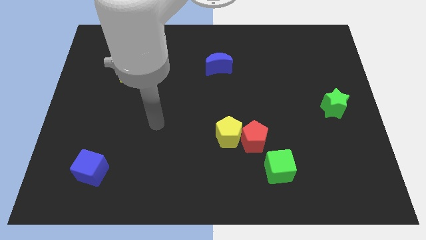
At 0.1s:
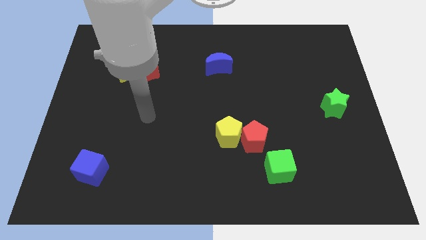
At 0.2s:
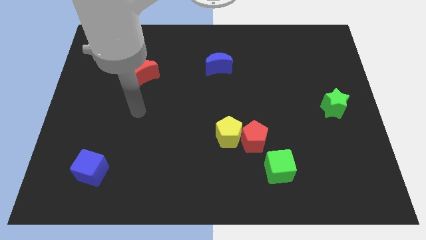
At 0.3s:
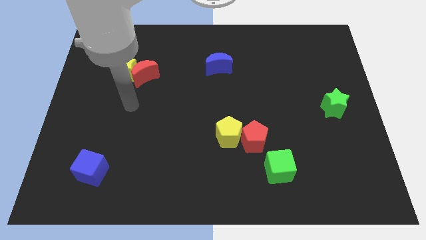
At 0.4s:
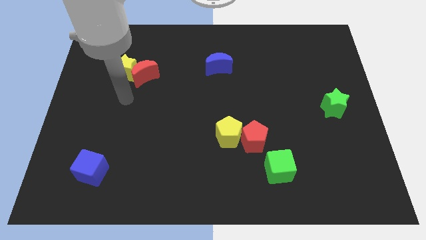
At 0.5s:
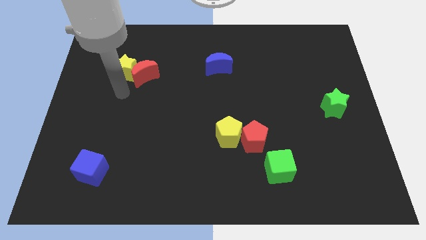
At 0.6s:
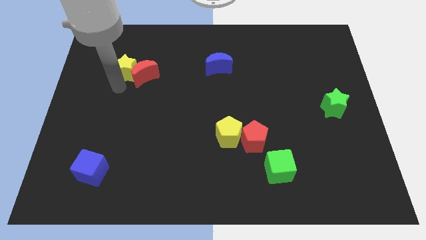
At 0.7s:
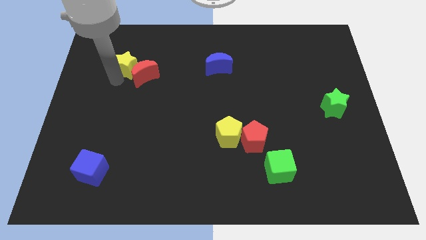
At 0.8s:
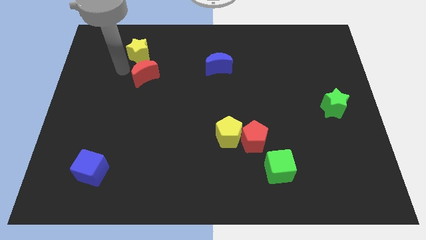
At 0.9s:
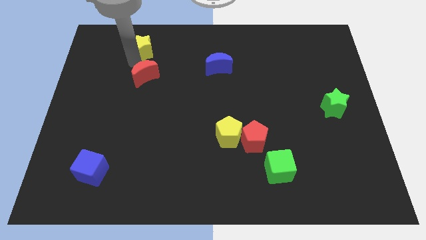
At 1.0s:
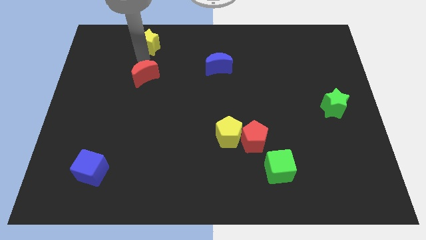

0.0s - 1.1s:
pull the red moon apart from the yellow star

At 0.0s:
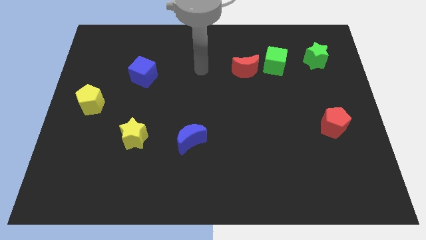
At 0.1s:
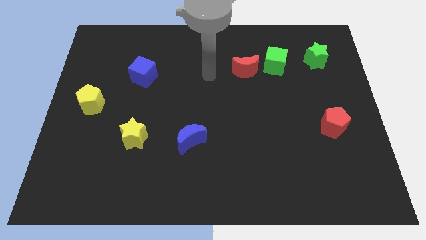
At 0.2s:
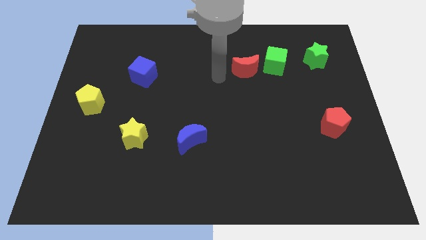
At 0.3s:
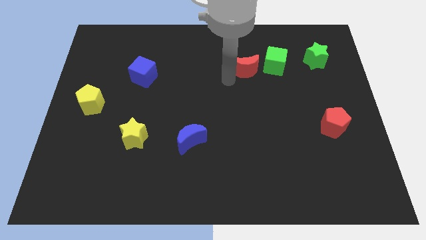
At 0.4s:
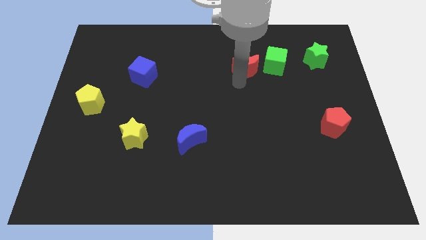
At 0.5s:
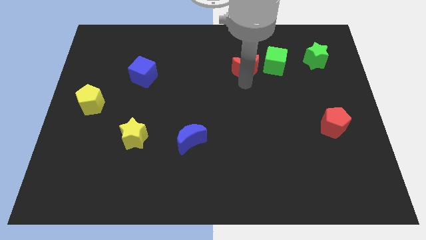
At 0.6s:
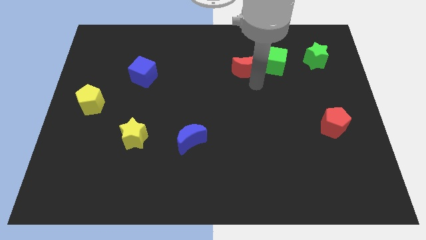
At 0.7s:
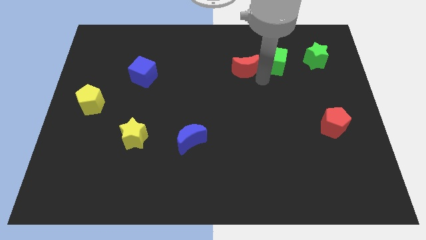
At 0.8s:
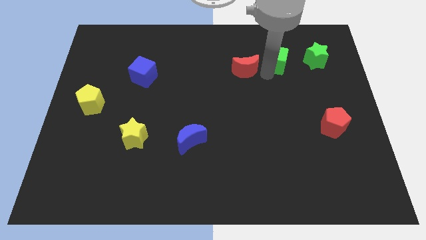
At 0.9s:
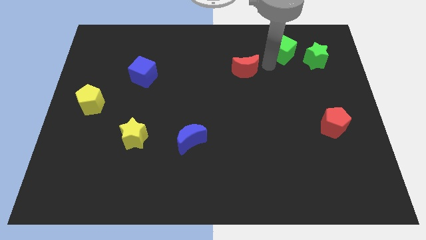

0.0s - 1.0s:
separate the red moon from the green cube

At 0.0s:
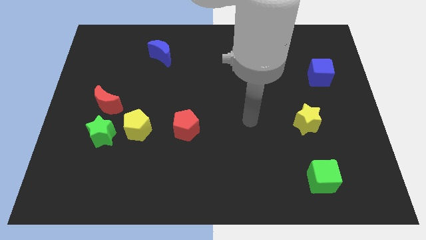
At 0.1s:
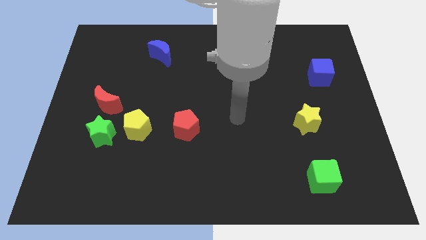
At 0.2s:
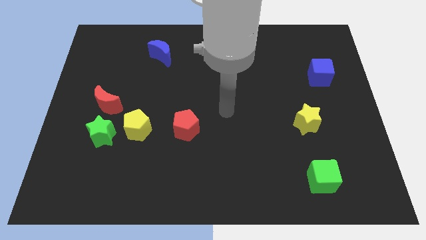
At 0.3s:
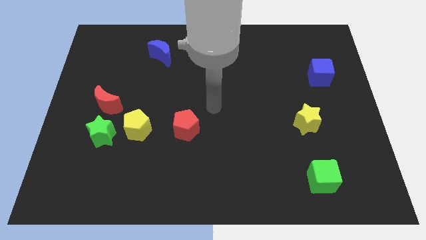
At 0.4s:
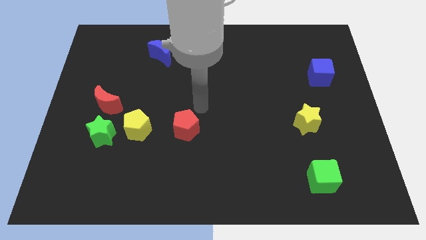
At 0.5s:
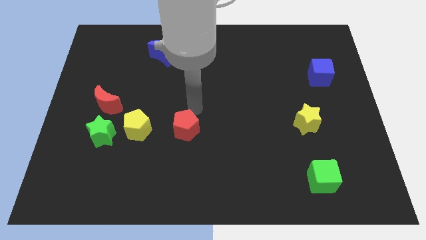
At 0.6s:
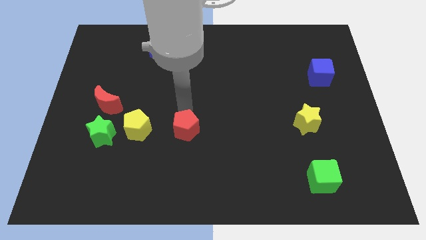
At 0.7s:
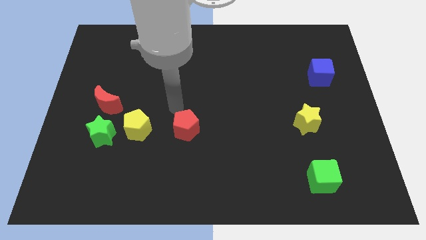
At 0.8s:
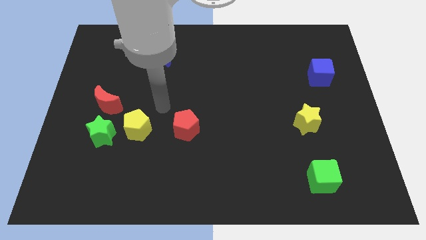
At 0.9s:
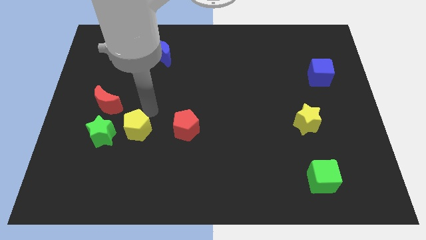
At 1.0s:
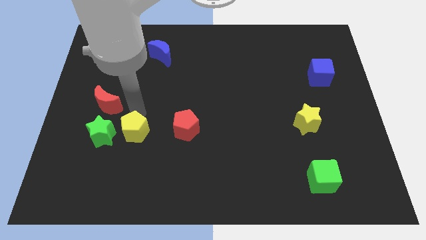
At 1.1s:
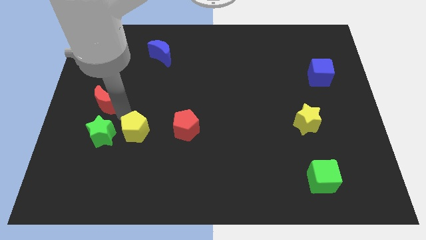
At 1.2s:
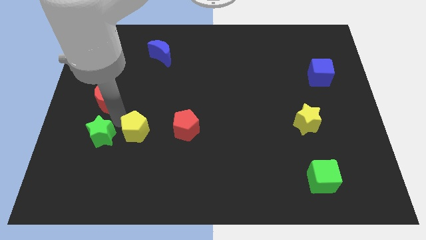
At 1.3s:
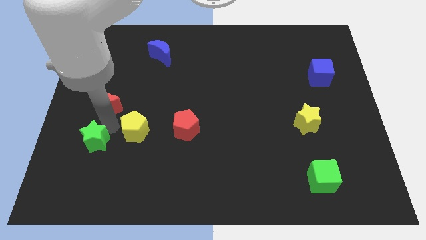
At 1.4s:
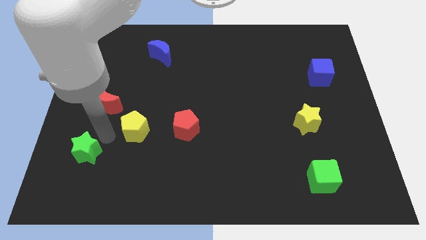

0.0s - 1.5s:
pull the yellow pentagon apart from the green star

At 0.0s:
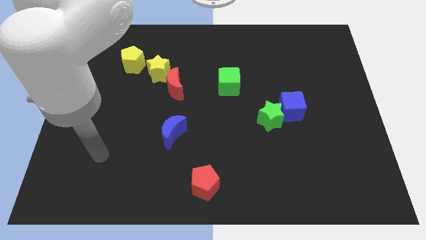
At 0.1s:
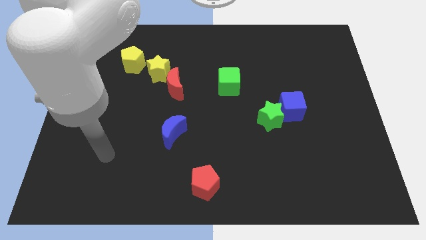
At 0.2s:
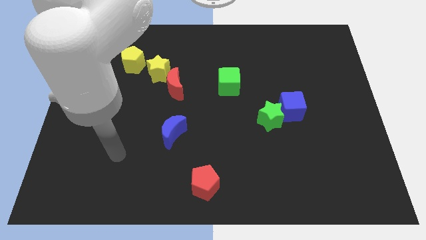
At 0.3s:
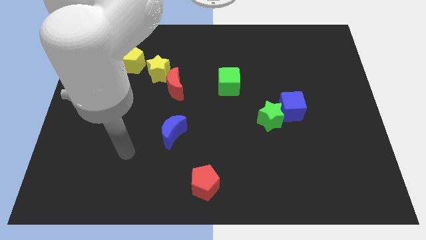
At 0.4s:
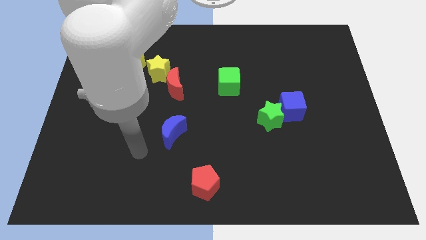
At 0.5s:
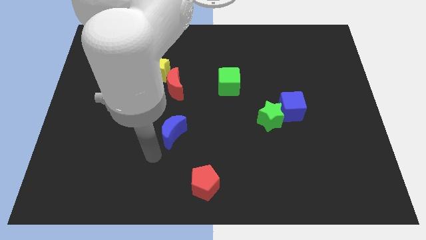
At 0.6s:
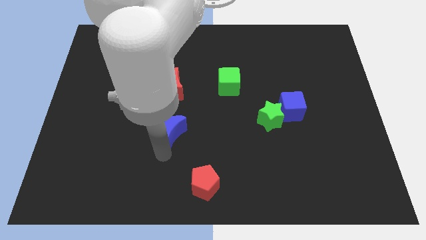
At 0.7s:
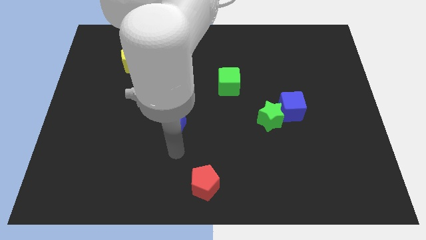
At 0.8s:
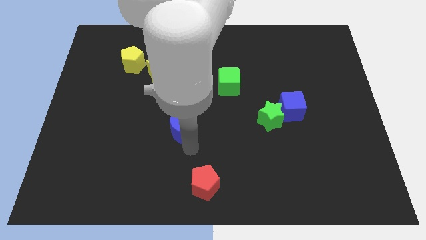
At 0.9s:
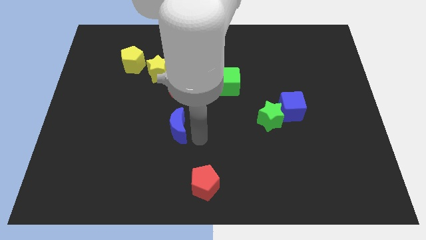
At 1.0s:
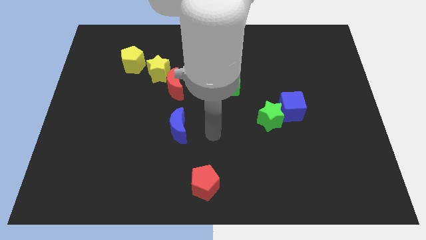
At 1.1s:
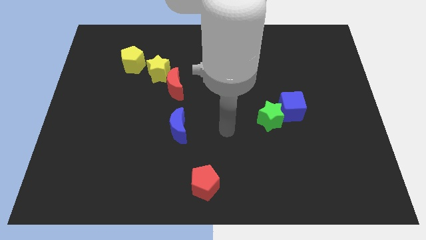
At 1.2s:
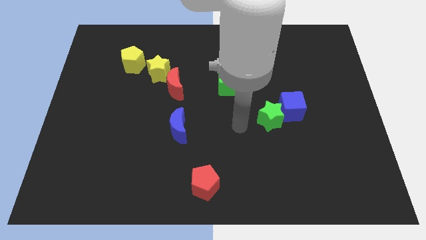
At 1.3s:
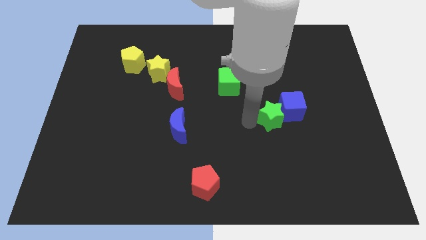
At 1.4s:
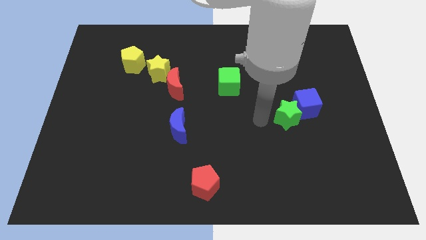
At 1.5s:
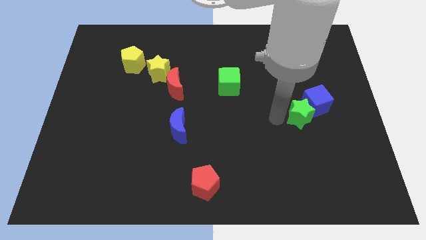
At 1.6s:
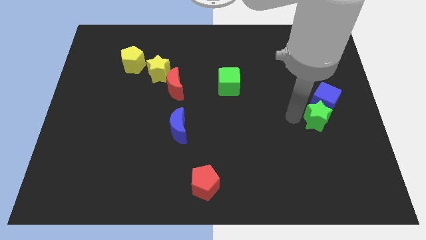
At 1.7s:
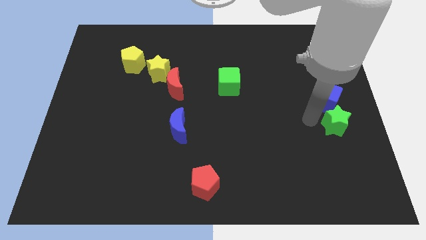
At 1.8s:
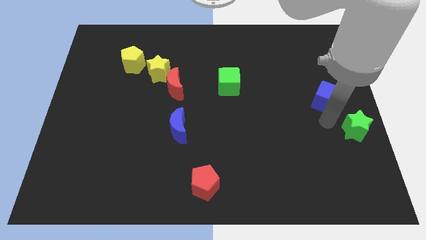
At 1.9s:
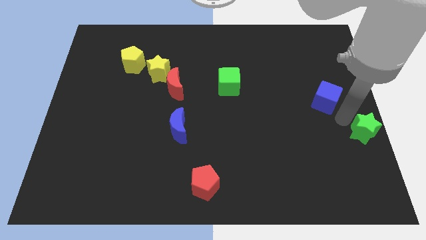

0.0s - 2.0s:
separate the blue cube from the green star

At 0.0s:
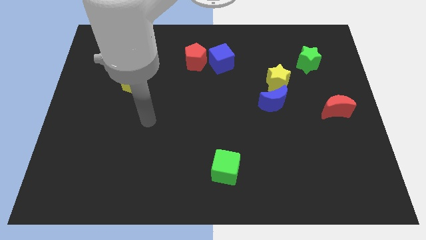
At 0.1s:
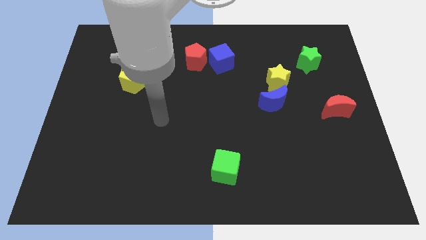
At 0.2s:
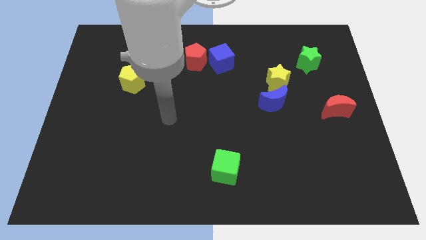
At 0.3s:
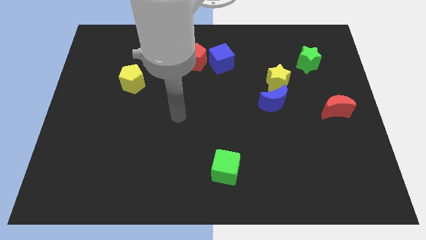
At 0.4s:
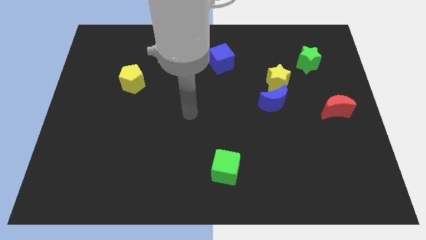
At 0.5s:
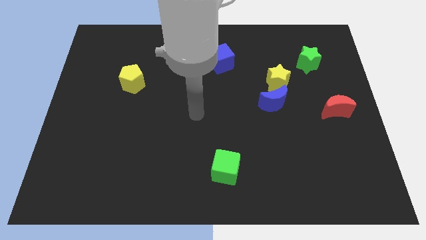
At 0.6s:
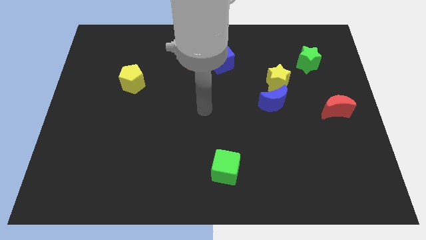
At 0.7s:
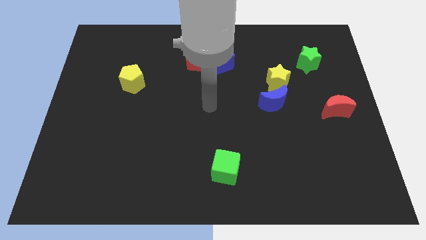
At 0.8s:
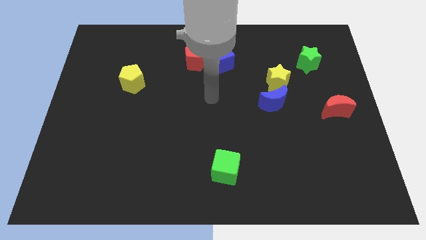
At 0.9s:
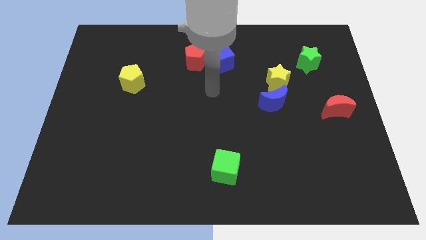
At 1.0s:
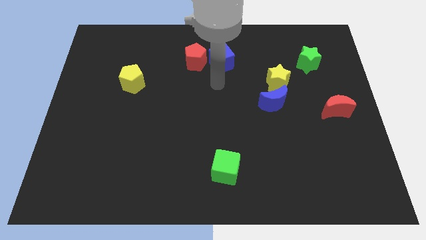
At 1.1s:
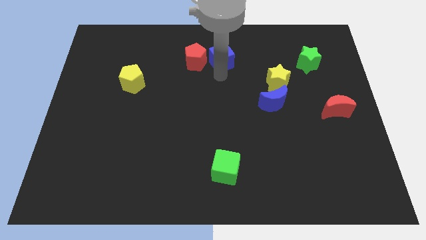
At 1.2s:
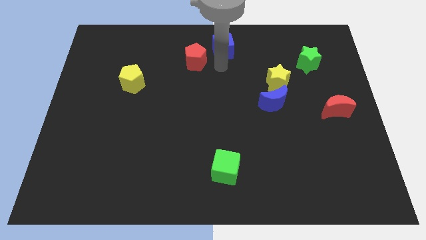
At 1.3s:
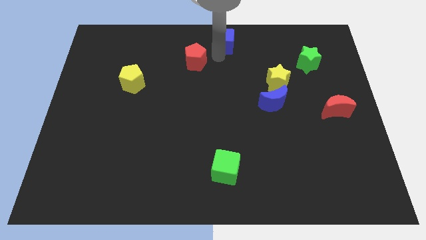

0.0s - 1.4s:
move the red pentagon away from the blue cube

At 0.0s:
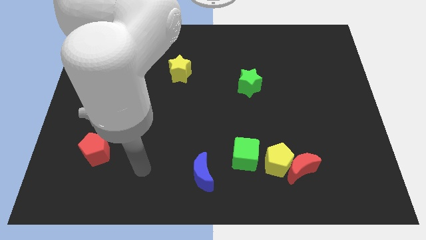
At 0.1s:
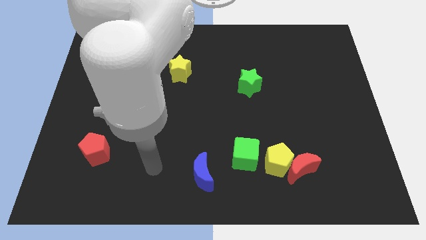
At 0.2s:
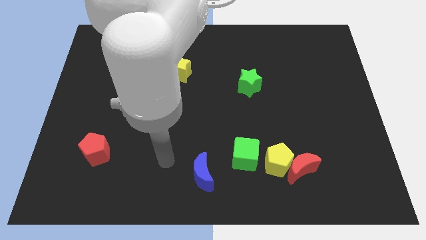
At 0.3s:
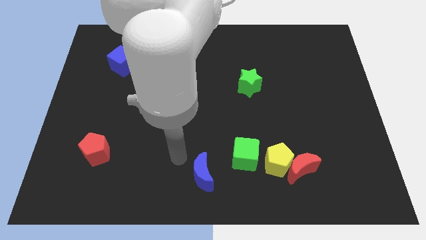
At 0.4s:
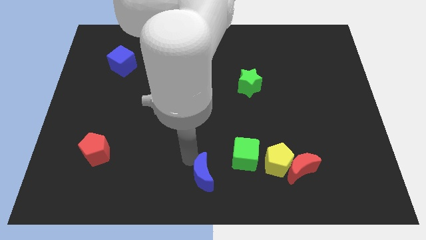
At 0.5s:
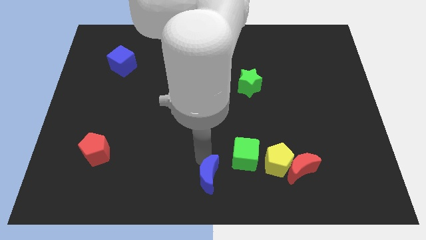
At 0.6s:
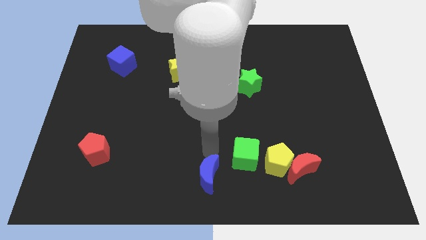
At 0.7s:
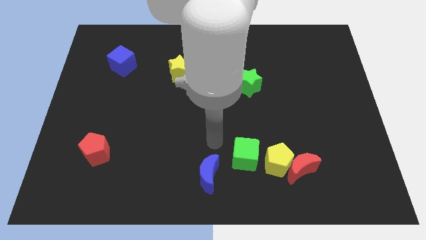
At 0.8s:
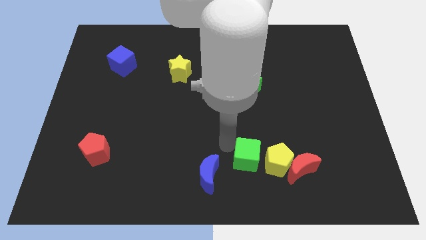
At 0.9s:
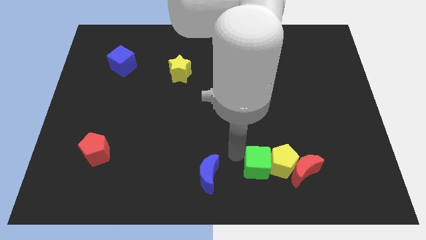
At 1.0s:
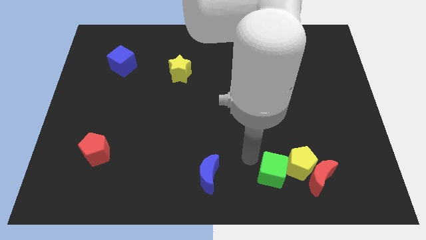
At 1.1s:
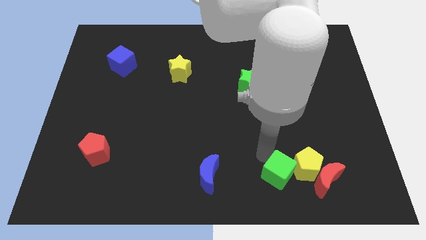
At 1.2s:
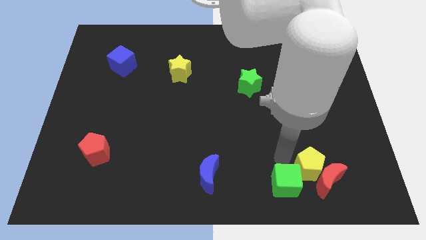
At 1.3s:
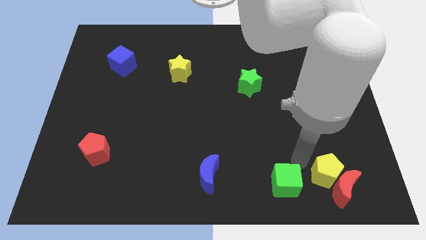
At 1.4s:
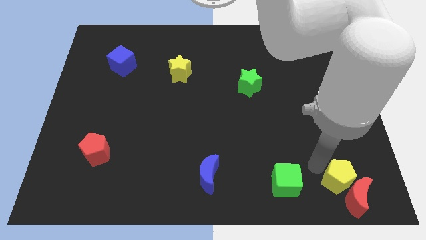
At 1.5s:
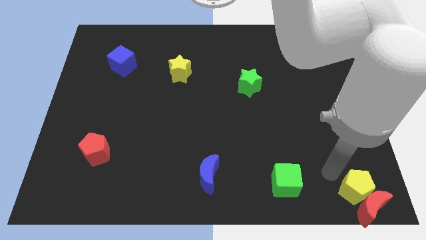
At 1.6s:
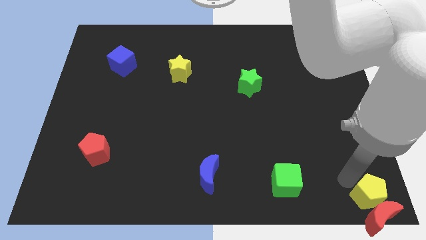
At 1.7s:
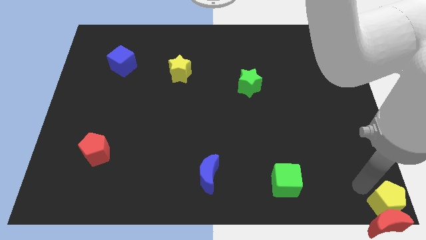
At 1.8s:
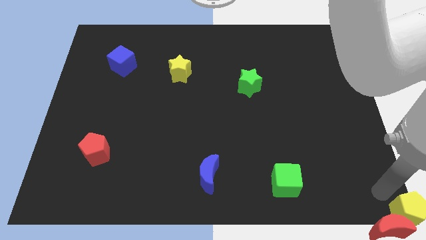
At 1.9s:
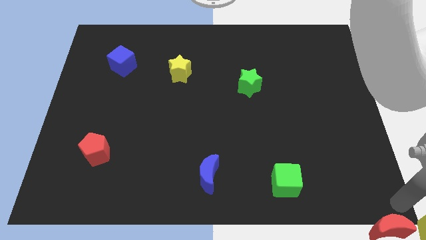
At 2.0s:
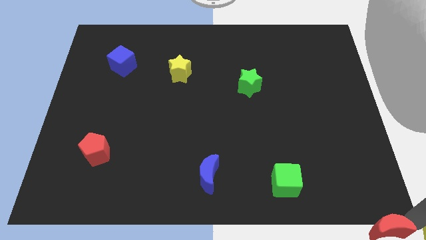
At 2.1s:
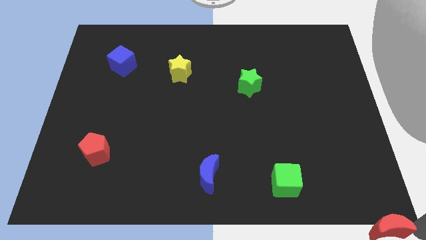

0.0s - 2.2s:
move the red moon away from the yellow pentagon
